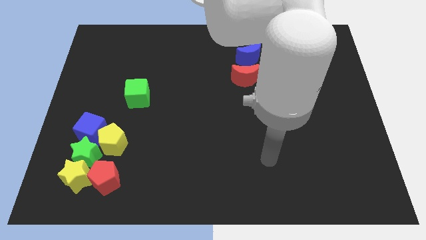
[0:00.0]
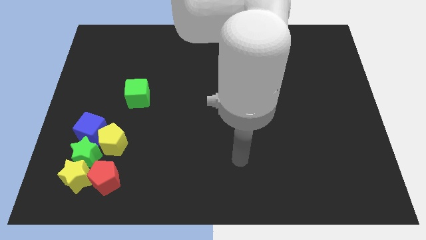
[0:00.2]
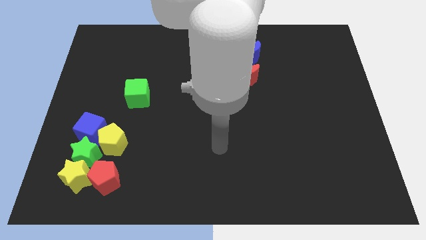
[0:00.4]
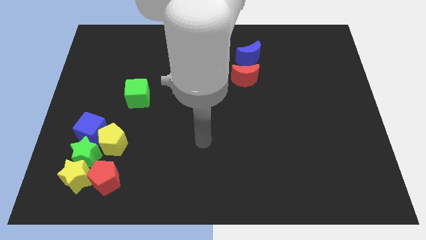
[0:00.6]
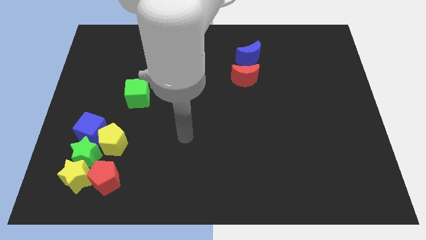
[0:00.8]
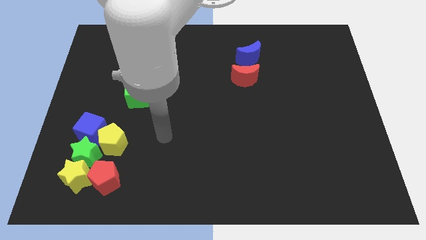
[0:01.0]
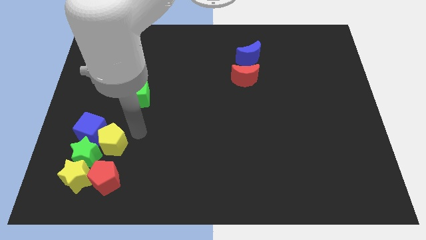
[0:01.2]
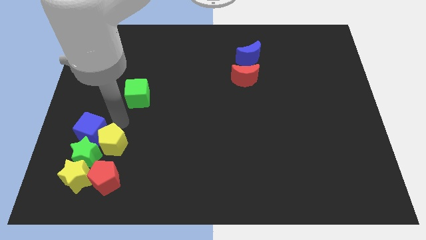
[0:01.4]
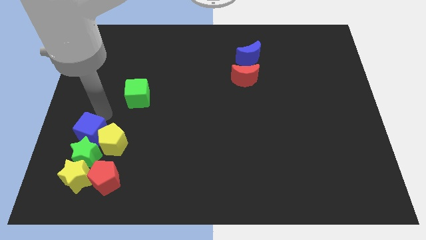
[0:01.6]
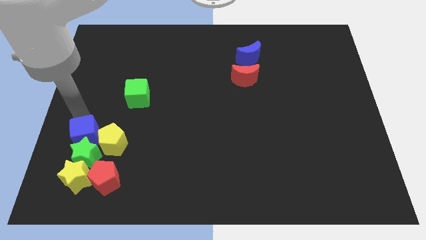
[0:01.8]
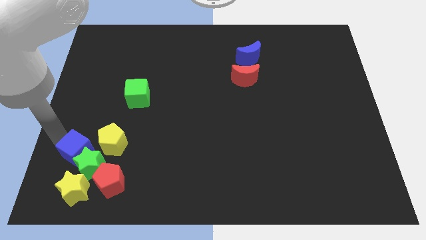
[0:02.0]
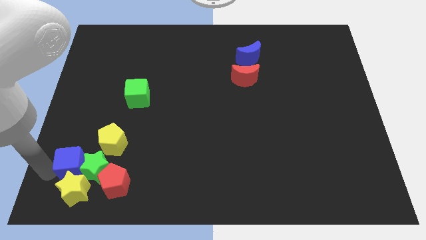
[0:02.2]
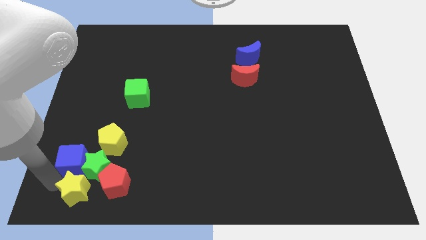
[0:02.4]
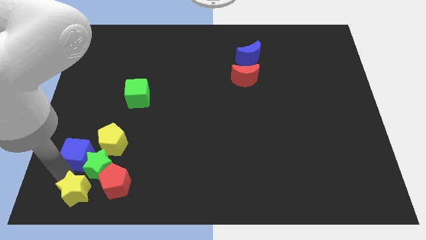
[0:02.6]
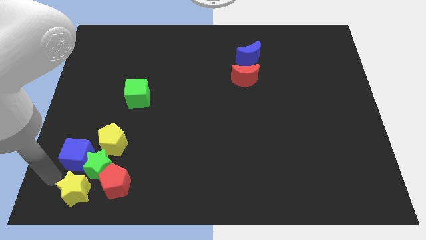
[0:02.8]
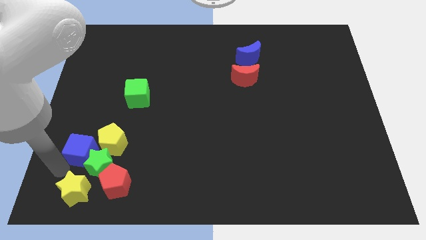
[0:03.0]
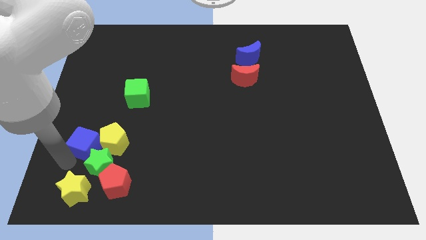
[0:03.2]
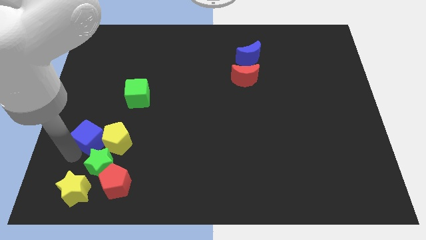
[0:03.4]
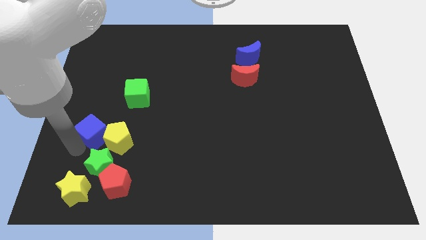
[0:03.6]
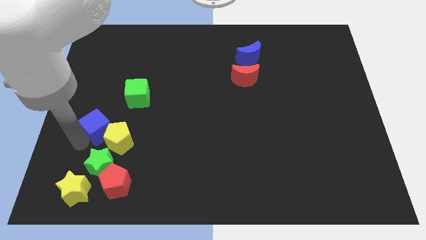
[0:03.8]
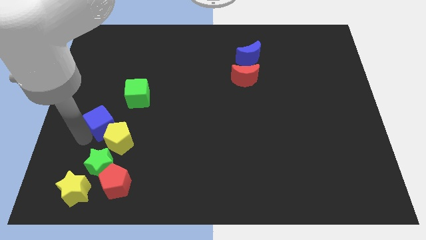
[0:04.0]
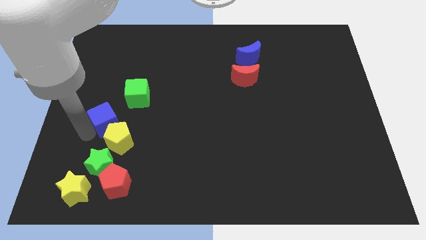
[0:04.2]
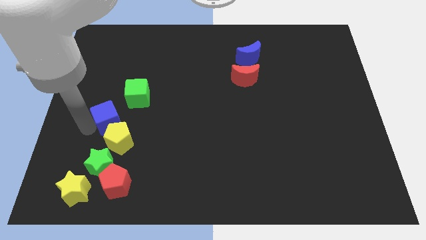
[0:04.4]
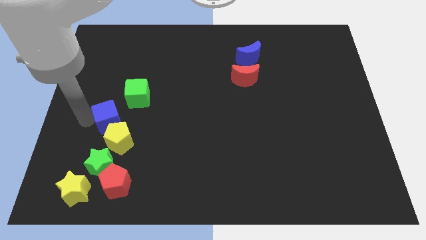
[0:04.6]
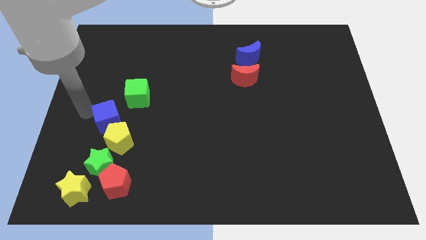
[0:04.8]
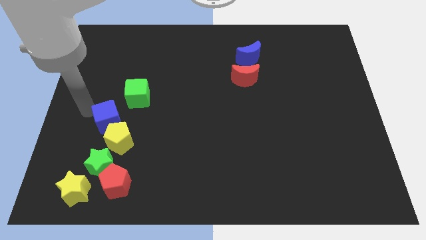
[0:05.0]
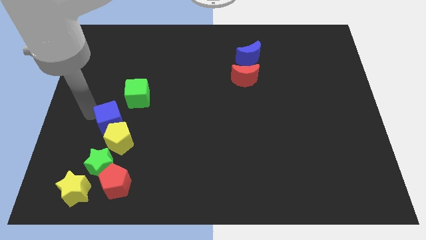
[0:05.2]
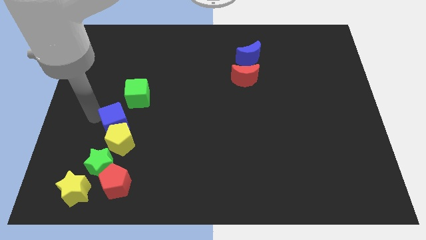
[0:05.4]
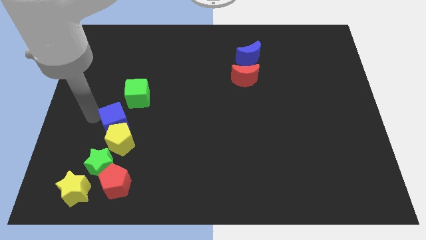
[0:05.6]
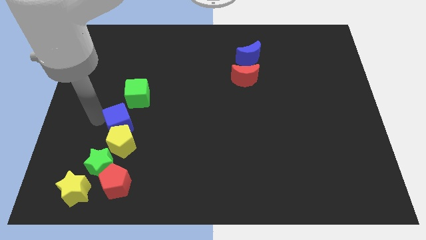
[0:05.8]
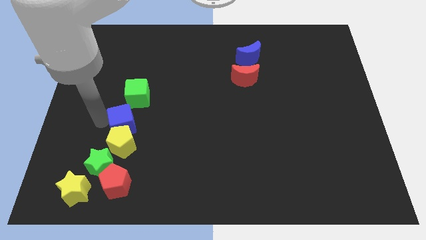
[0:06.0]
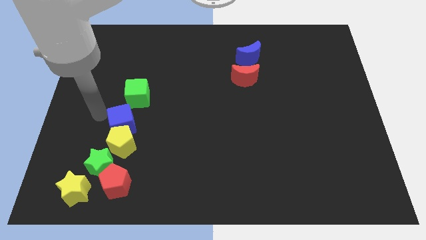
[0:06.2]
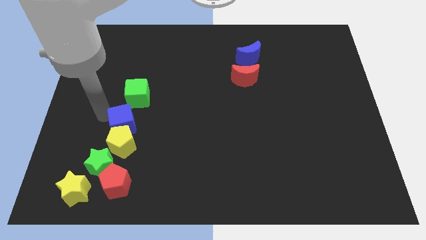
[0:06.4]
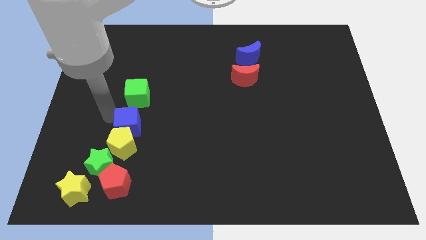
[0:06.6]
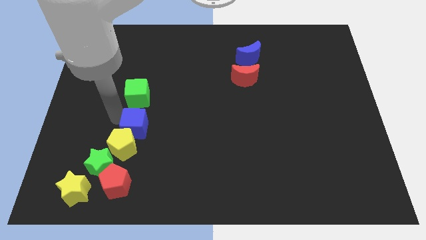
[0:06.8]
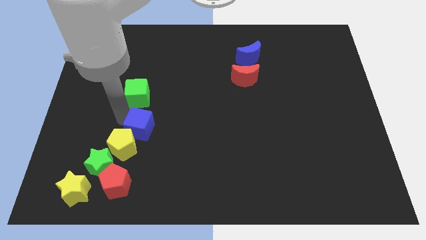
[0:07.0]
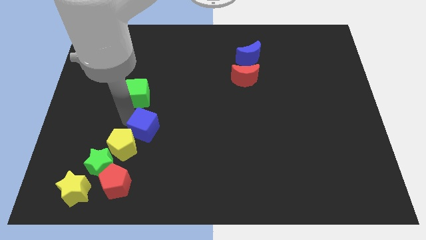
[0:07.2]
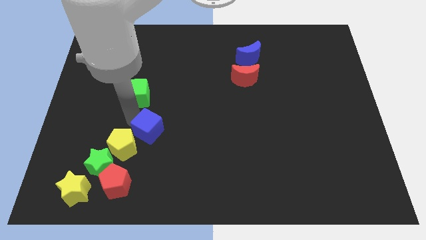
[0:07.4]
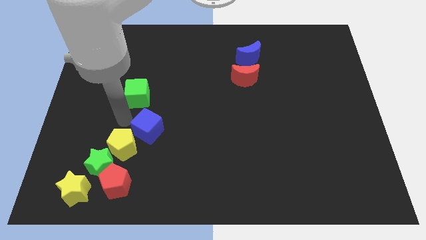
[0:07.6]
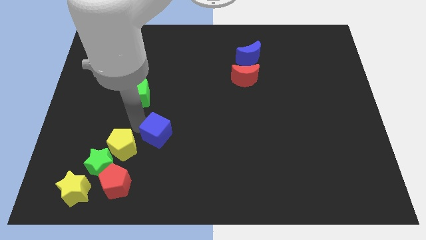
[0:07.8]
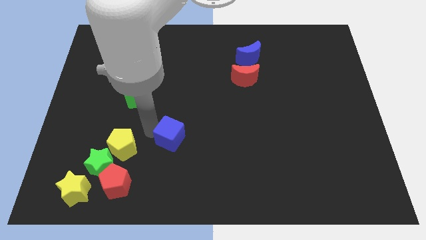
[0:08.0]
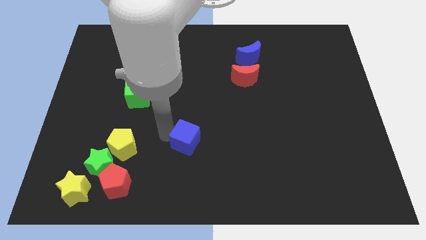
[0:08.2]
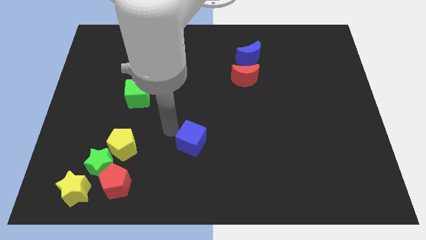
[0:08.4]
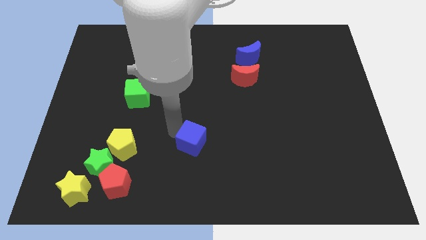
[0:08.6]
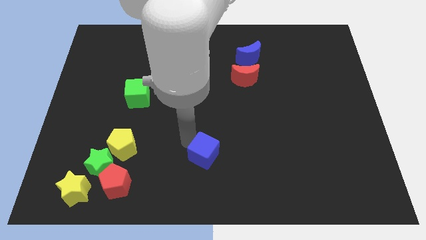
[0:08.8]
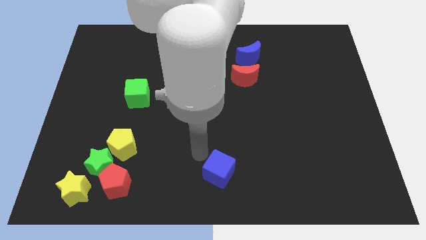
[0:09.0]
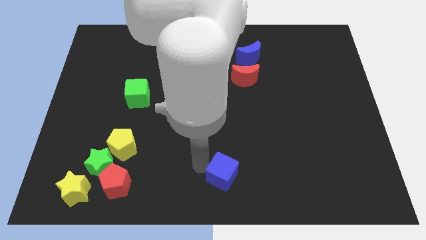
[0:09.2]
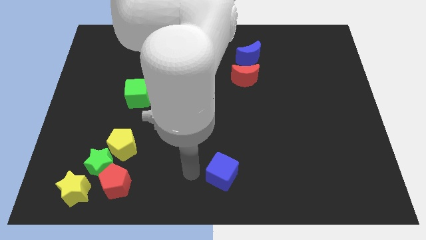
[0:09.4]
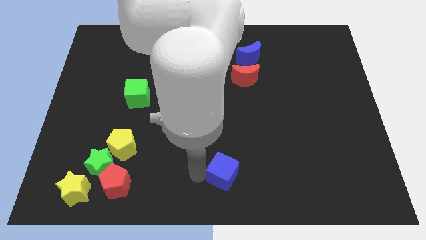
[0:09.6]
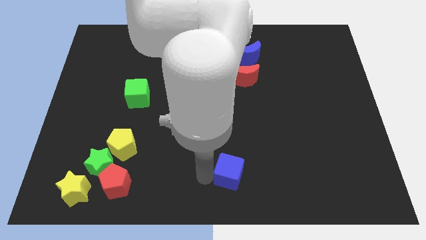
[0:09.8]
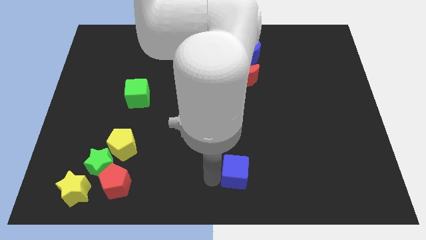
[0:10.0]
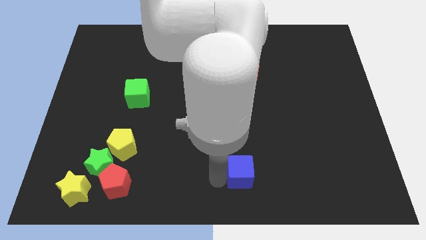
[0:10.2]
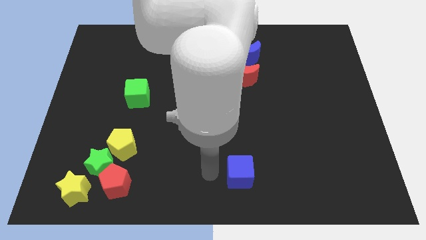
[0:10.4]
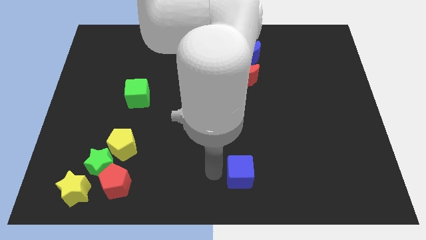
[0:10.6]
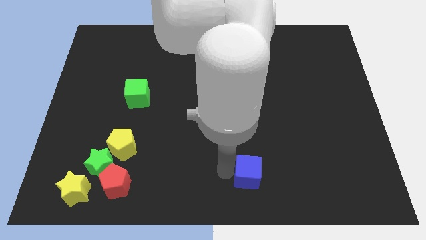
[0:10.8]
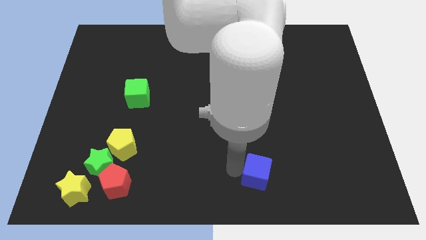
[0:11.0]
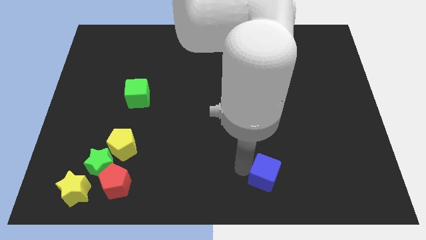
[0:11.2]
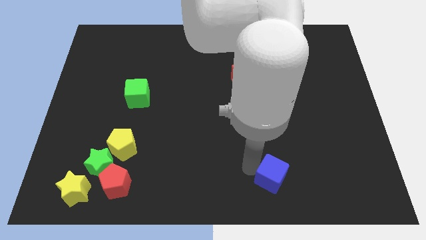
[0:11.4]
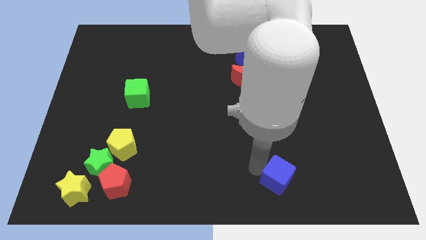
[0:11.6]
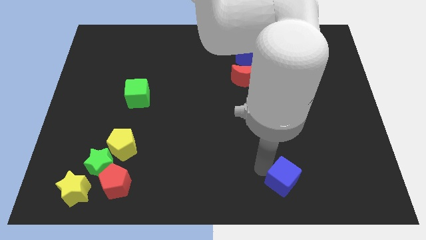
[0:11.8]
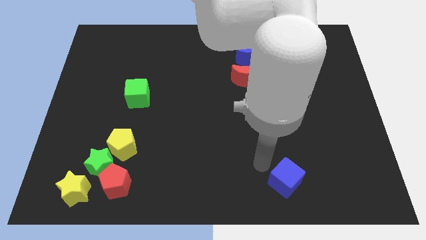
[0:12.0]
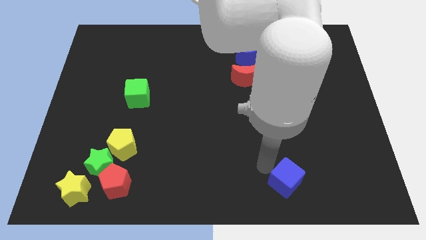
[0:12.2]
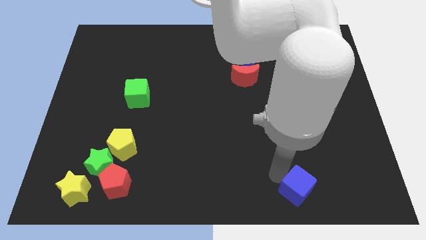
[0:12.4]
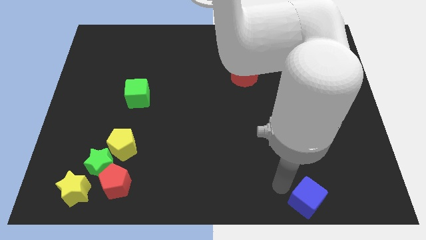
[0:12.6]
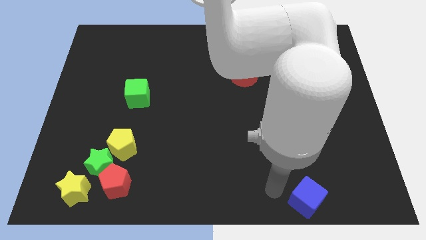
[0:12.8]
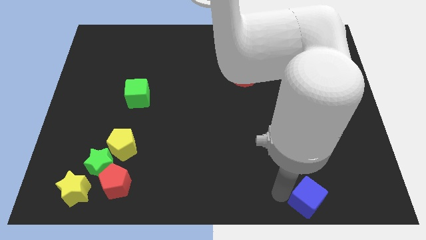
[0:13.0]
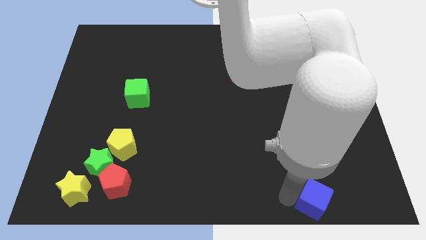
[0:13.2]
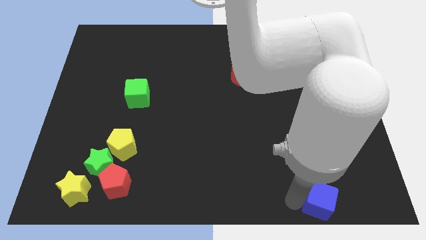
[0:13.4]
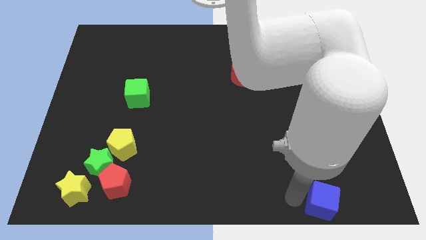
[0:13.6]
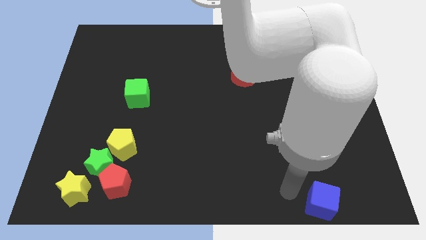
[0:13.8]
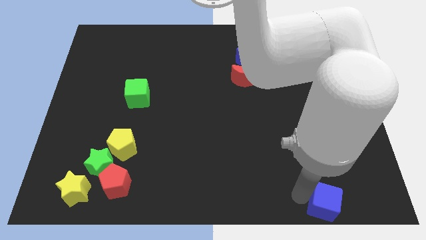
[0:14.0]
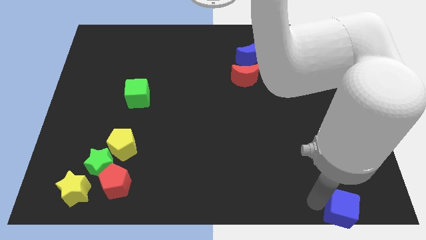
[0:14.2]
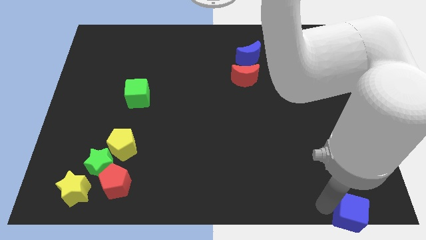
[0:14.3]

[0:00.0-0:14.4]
move the blue cube to the lower right corner
